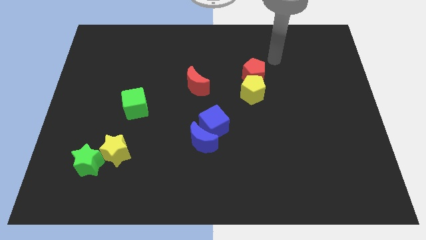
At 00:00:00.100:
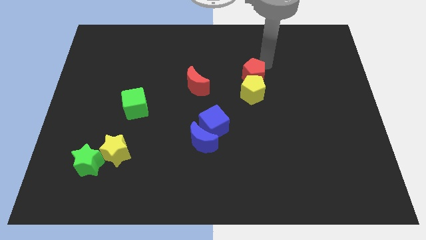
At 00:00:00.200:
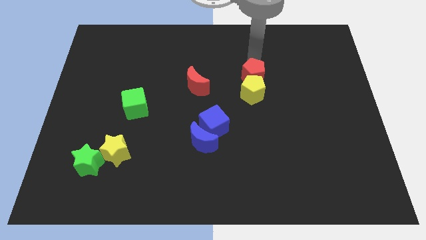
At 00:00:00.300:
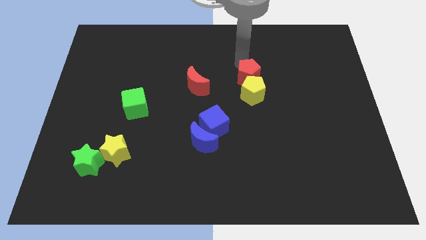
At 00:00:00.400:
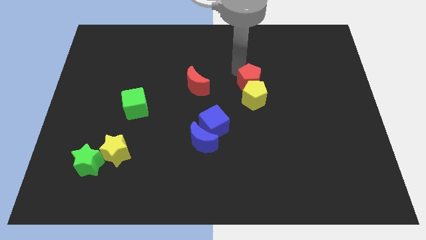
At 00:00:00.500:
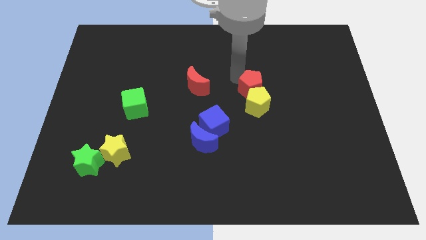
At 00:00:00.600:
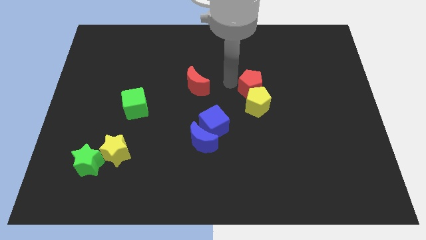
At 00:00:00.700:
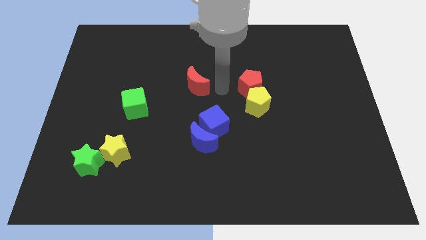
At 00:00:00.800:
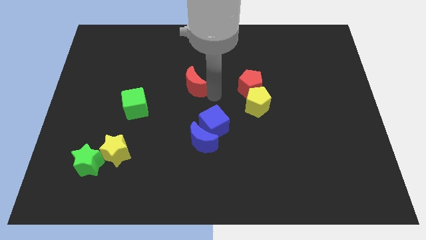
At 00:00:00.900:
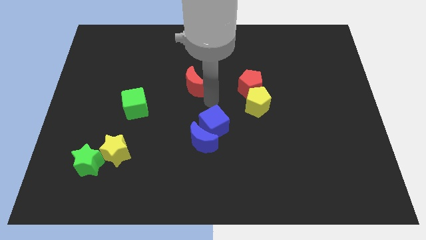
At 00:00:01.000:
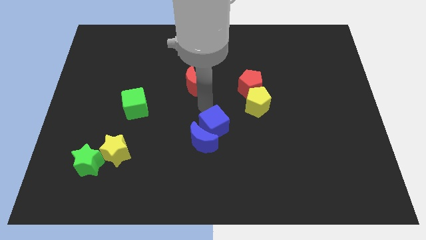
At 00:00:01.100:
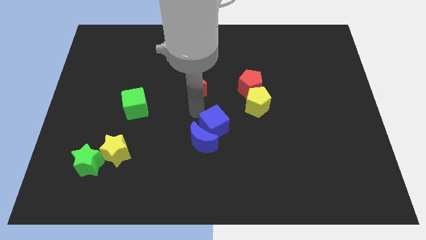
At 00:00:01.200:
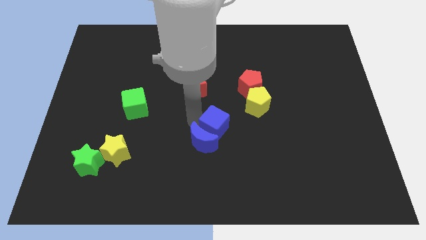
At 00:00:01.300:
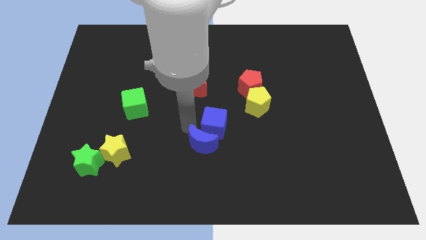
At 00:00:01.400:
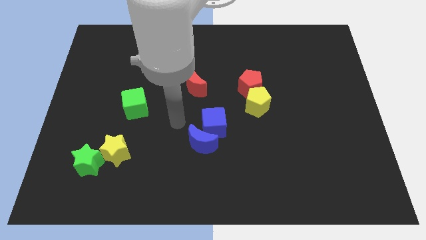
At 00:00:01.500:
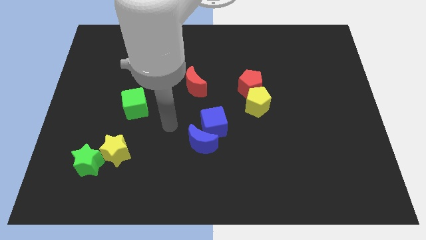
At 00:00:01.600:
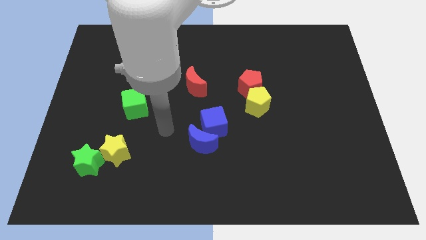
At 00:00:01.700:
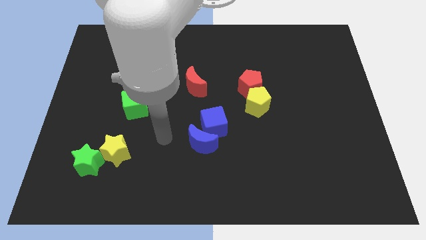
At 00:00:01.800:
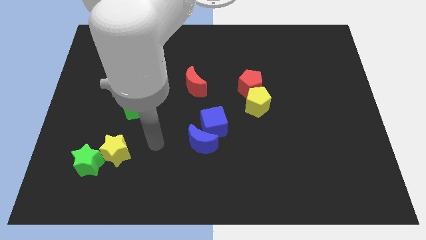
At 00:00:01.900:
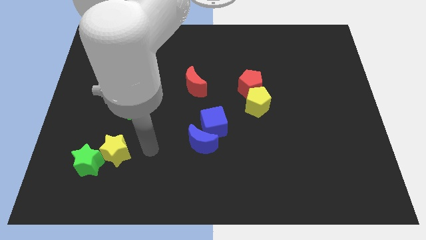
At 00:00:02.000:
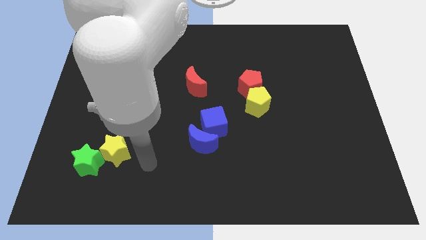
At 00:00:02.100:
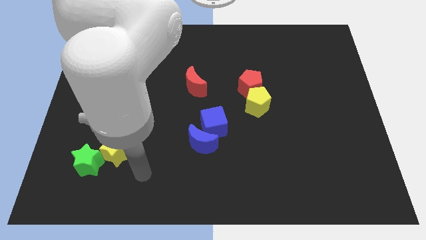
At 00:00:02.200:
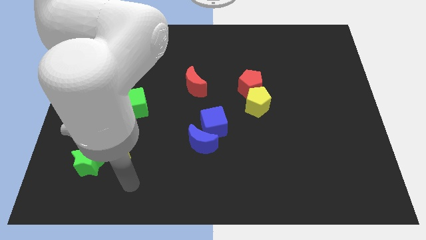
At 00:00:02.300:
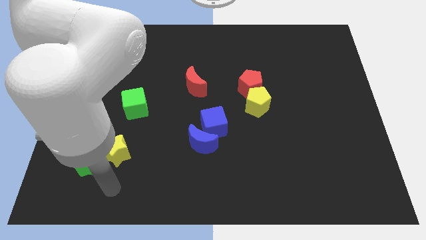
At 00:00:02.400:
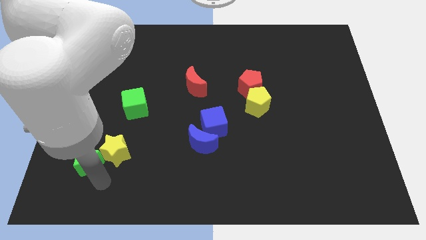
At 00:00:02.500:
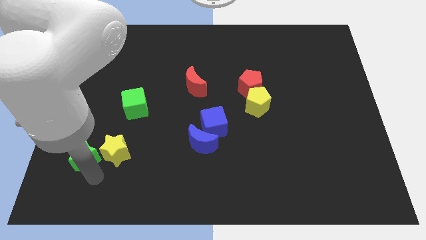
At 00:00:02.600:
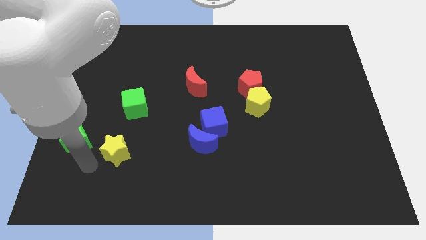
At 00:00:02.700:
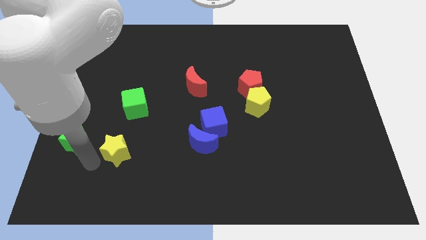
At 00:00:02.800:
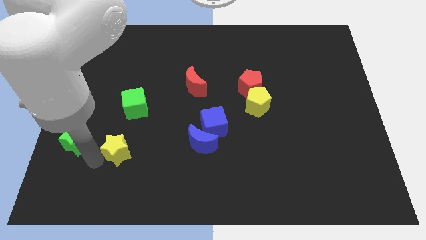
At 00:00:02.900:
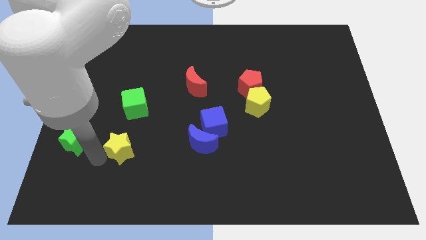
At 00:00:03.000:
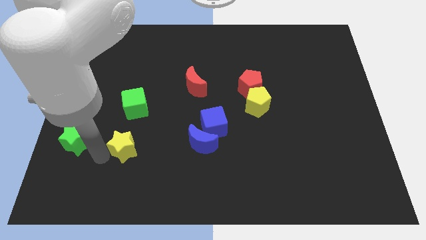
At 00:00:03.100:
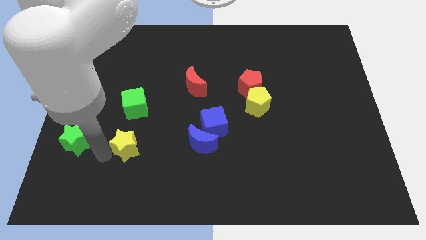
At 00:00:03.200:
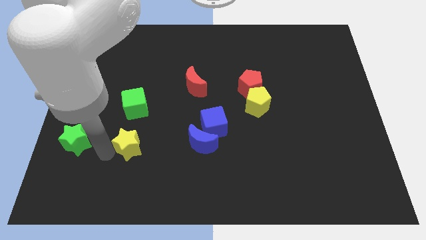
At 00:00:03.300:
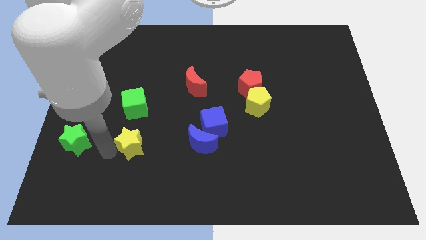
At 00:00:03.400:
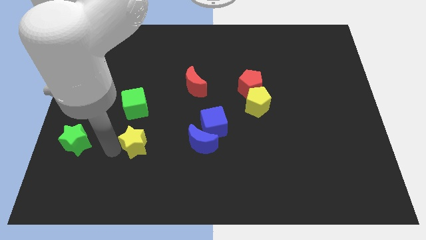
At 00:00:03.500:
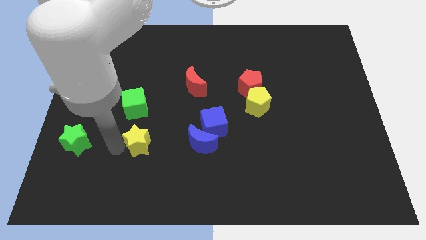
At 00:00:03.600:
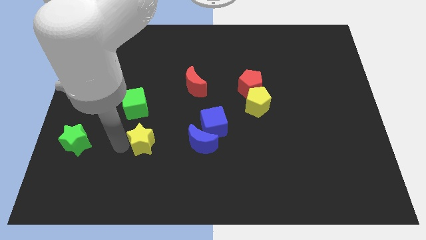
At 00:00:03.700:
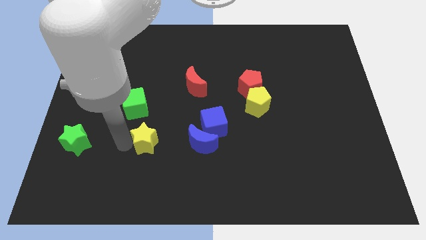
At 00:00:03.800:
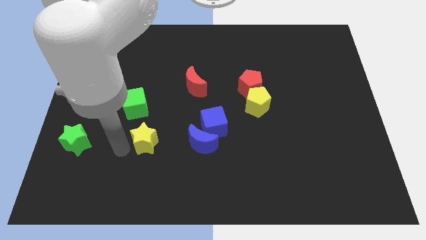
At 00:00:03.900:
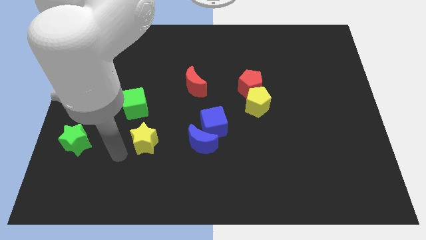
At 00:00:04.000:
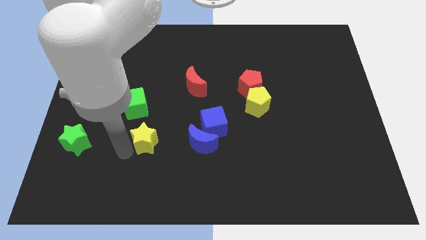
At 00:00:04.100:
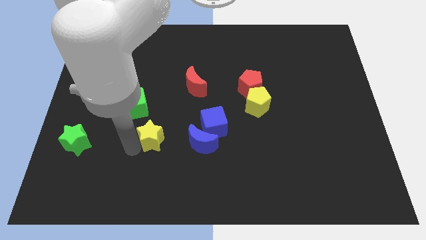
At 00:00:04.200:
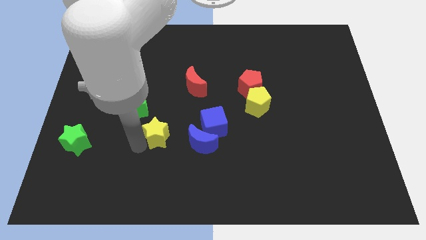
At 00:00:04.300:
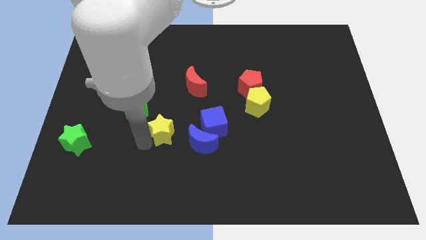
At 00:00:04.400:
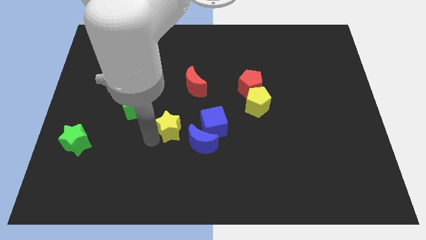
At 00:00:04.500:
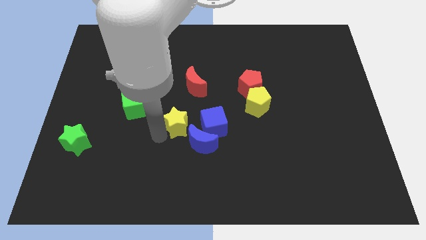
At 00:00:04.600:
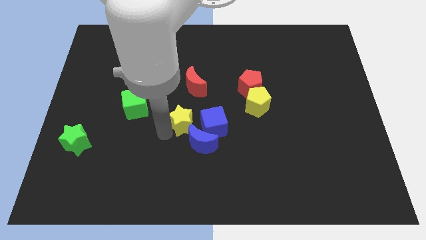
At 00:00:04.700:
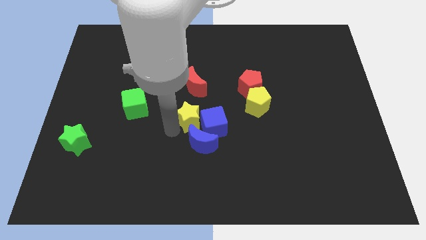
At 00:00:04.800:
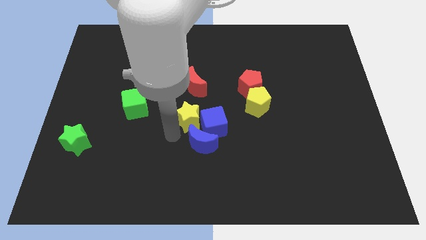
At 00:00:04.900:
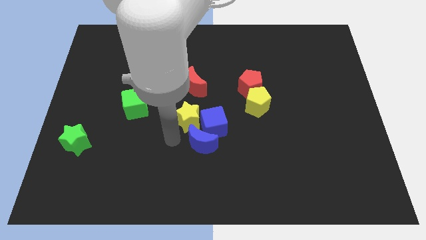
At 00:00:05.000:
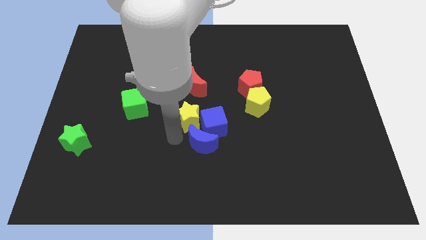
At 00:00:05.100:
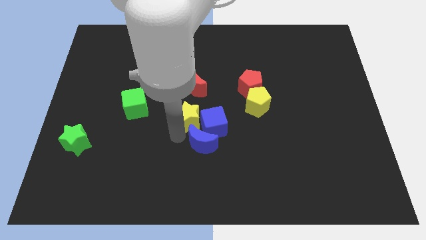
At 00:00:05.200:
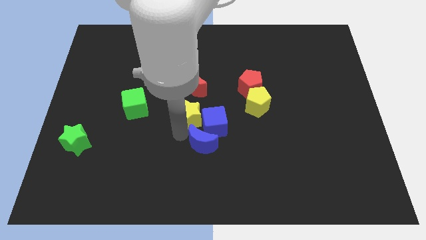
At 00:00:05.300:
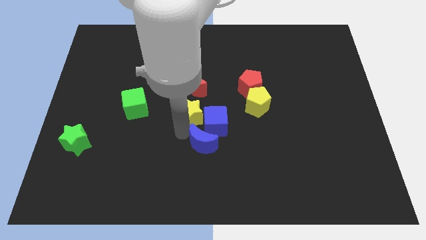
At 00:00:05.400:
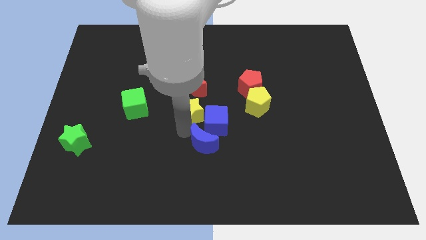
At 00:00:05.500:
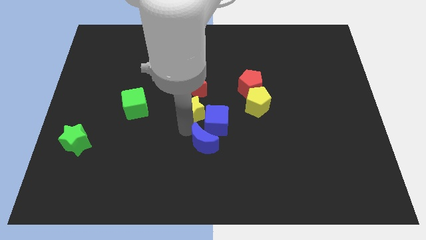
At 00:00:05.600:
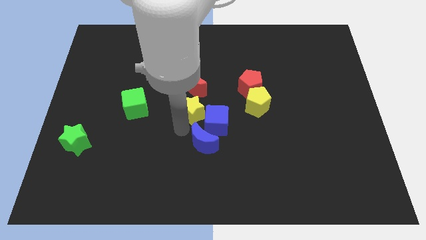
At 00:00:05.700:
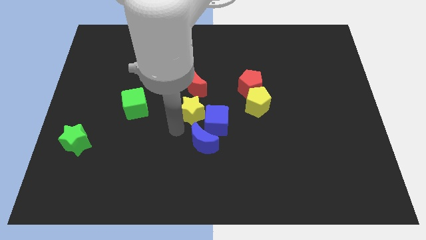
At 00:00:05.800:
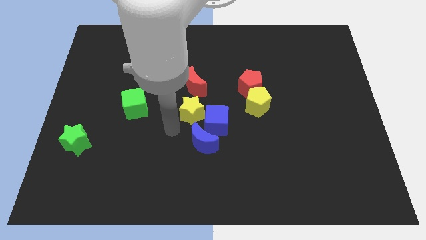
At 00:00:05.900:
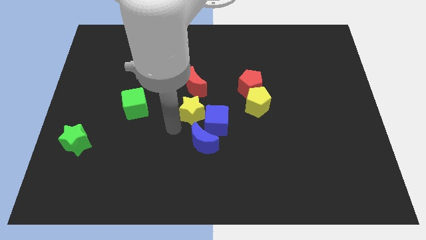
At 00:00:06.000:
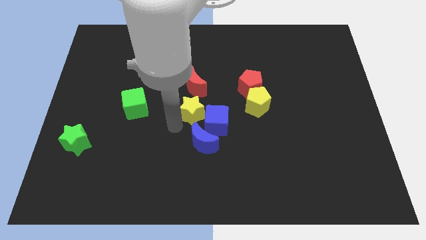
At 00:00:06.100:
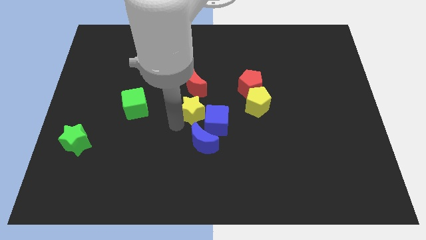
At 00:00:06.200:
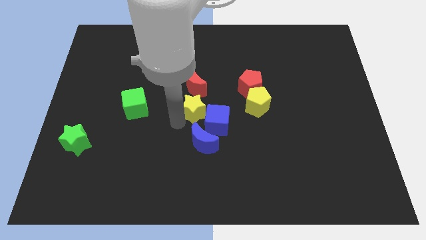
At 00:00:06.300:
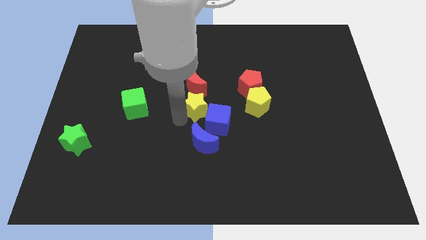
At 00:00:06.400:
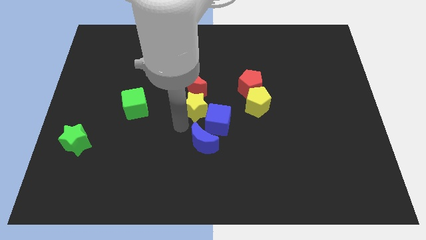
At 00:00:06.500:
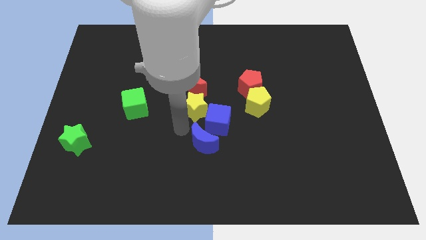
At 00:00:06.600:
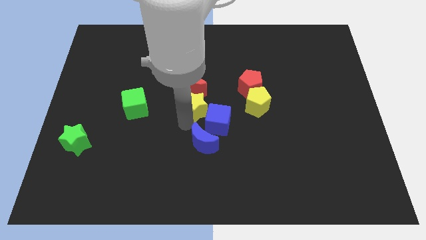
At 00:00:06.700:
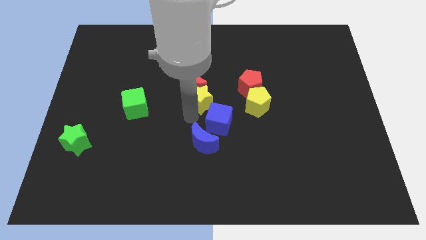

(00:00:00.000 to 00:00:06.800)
slide the yellow star upwards and to the right

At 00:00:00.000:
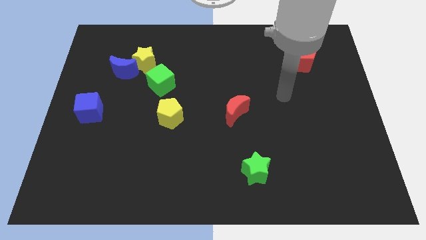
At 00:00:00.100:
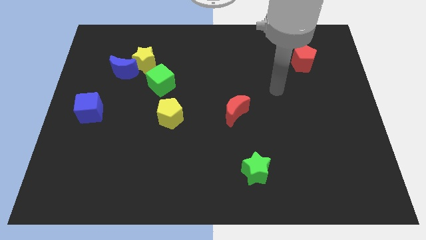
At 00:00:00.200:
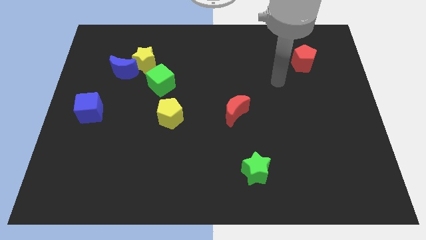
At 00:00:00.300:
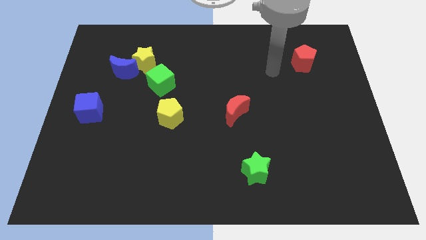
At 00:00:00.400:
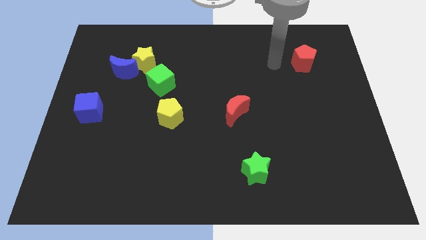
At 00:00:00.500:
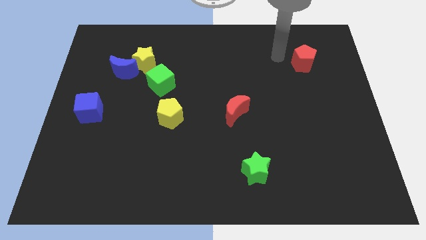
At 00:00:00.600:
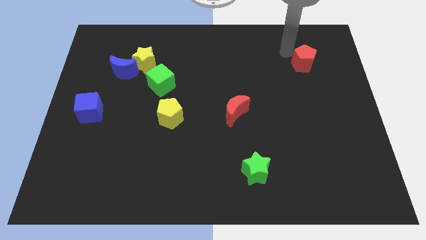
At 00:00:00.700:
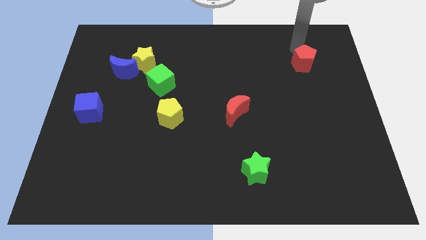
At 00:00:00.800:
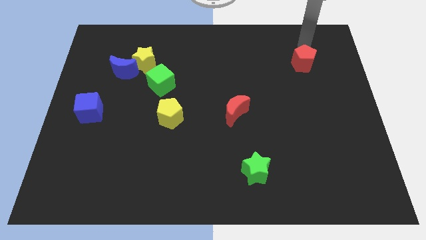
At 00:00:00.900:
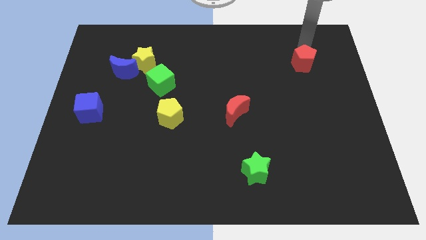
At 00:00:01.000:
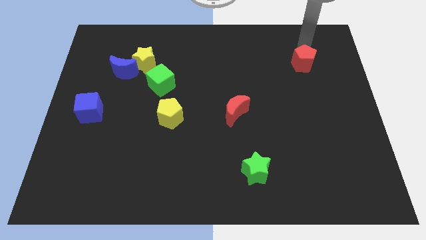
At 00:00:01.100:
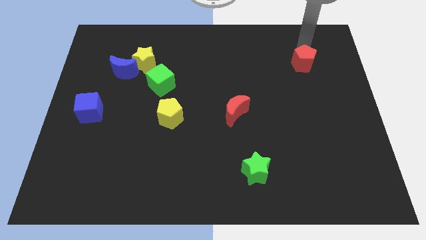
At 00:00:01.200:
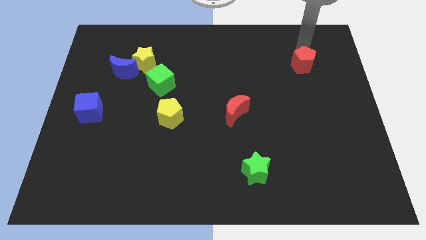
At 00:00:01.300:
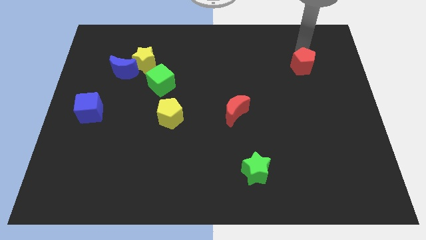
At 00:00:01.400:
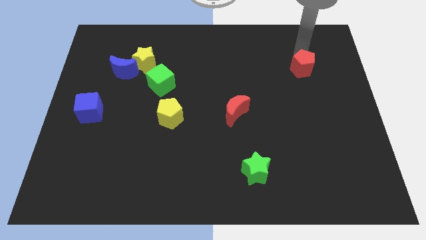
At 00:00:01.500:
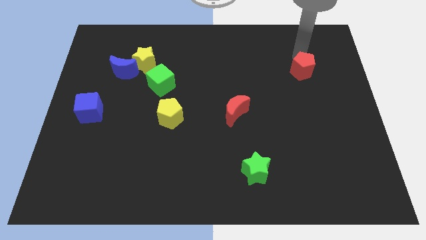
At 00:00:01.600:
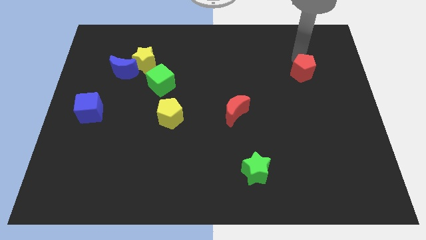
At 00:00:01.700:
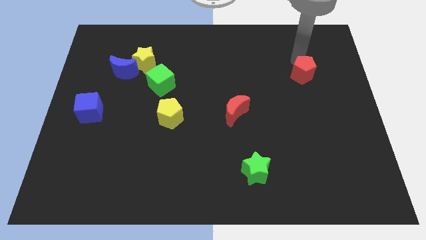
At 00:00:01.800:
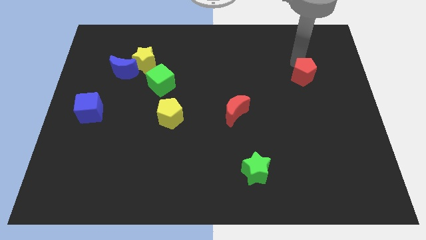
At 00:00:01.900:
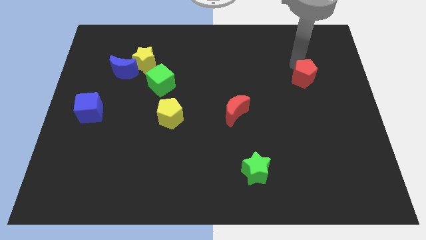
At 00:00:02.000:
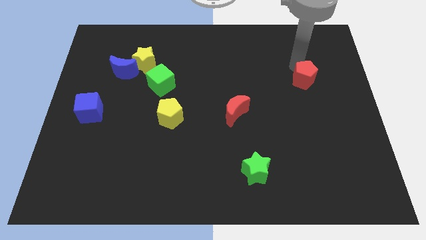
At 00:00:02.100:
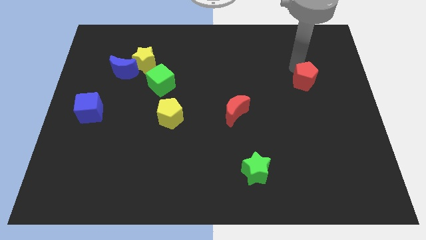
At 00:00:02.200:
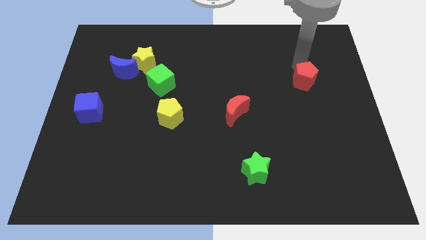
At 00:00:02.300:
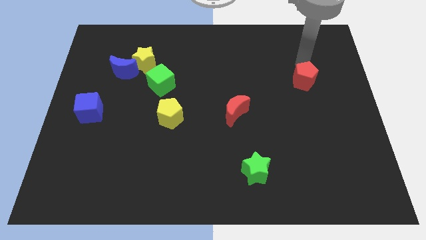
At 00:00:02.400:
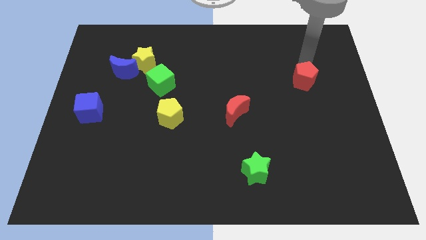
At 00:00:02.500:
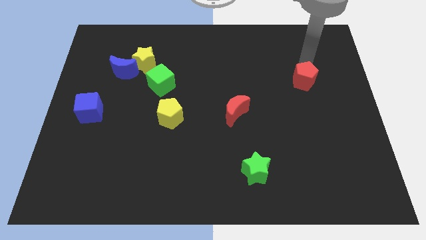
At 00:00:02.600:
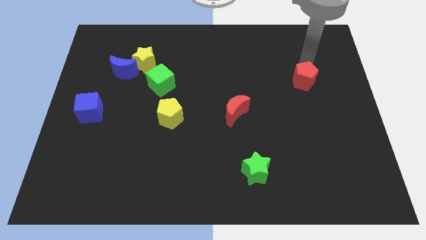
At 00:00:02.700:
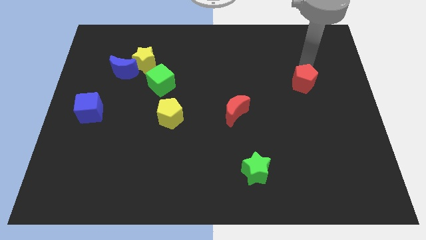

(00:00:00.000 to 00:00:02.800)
slide the red pentagon down a little bit
